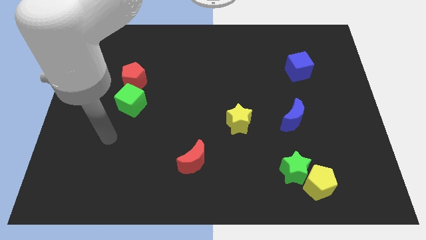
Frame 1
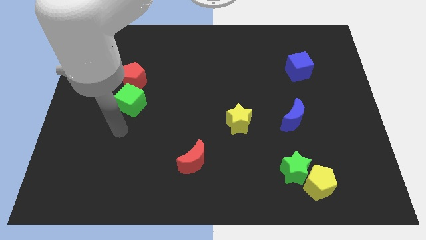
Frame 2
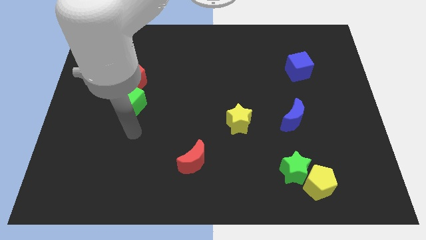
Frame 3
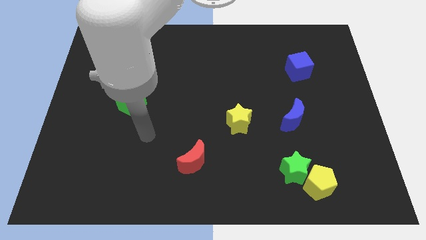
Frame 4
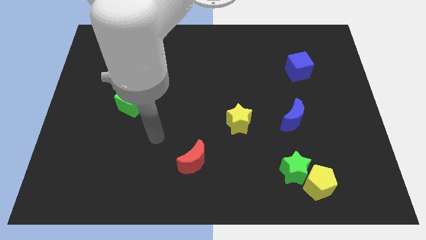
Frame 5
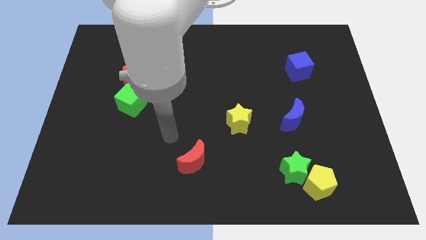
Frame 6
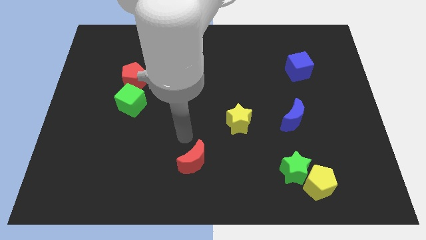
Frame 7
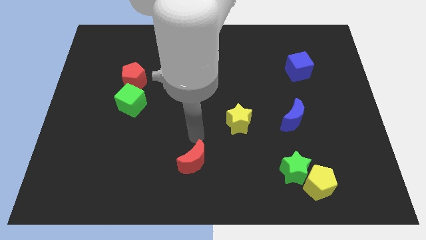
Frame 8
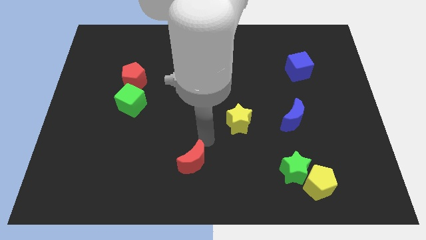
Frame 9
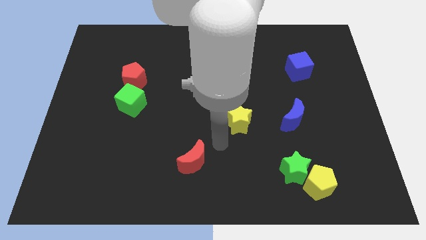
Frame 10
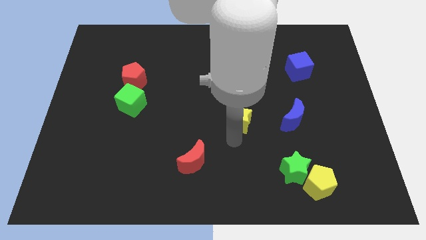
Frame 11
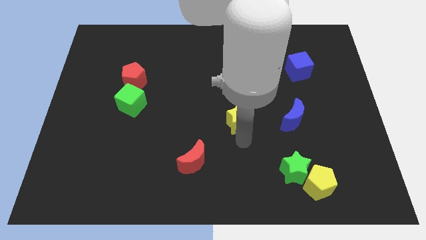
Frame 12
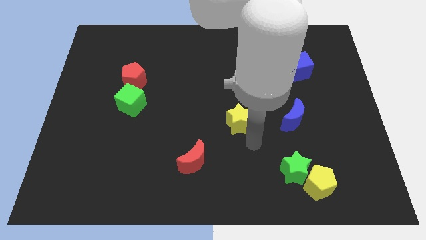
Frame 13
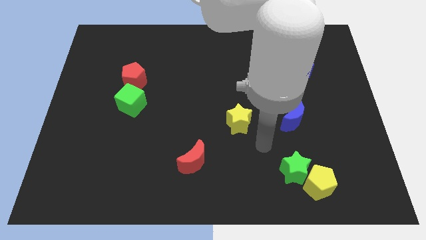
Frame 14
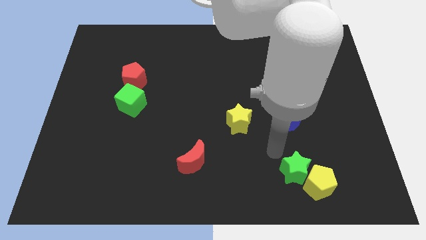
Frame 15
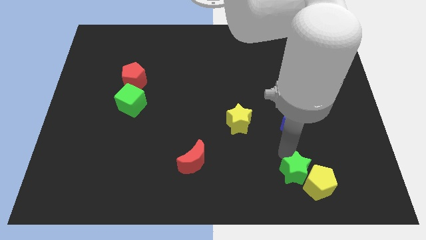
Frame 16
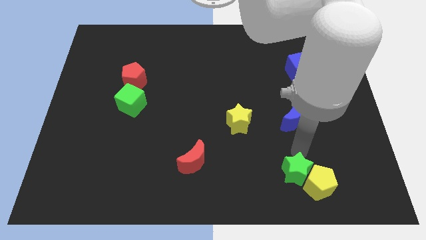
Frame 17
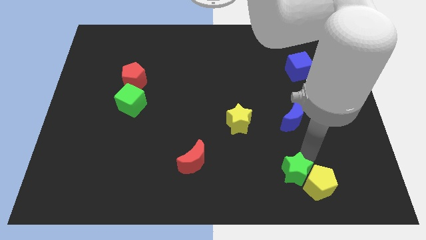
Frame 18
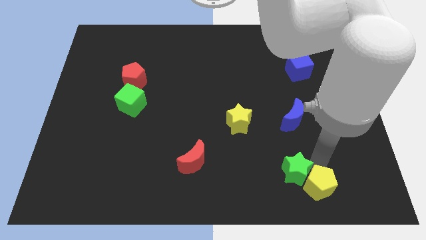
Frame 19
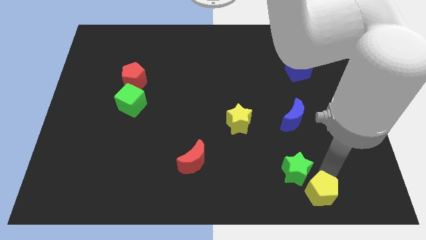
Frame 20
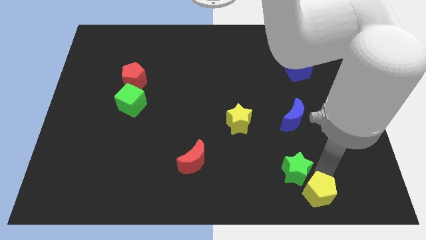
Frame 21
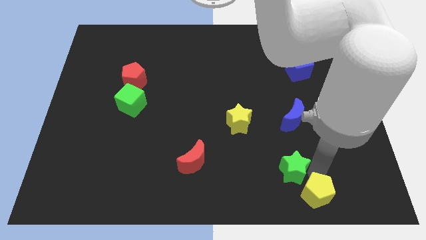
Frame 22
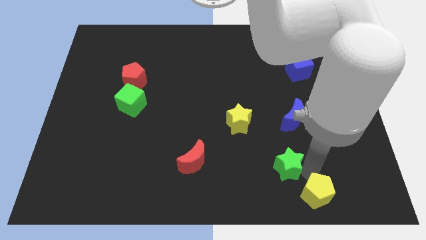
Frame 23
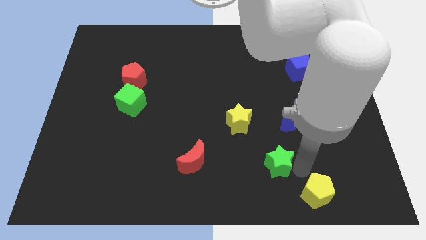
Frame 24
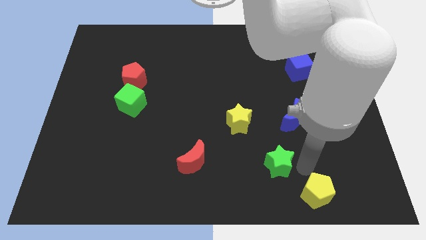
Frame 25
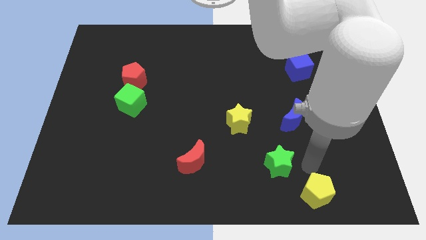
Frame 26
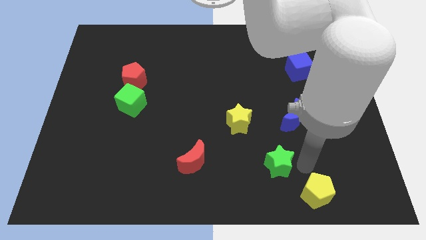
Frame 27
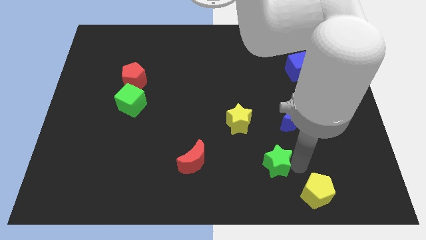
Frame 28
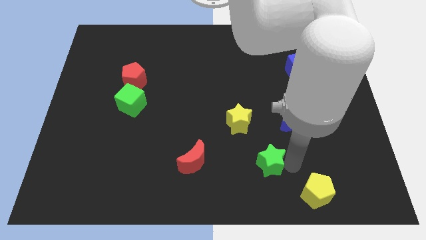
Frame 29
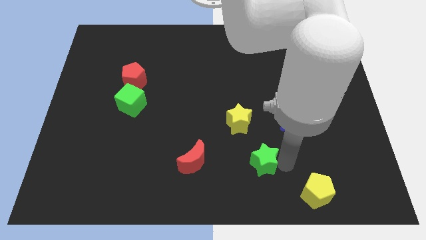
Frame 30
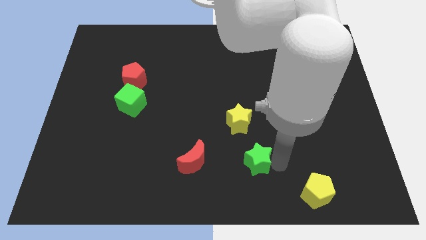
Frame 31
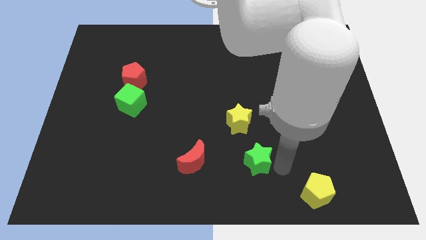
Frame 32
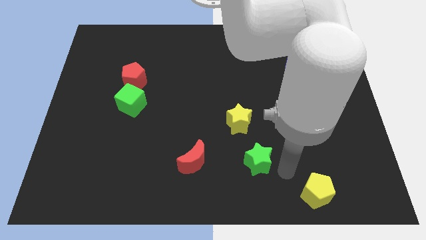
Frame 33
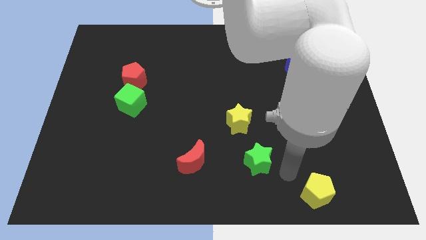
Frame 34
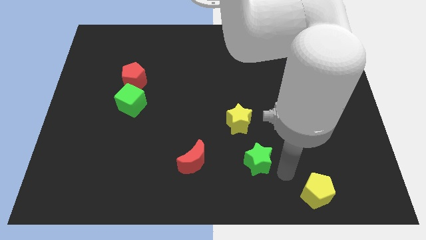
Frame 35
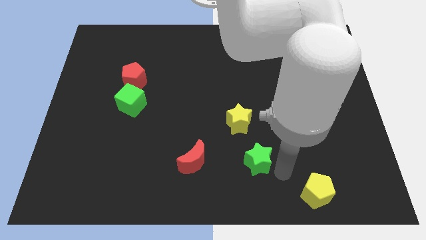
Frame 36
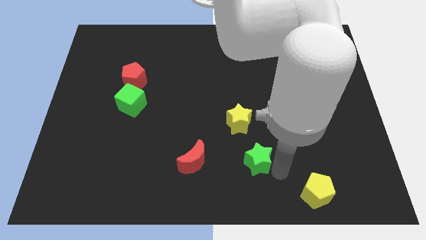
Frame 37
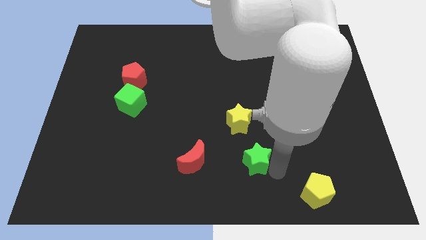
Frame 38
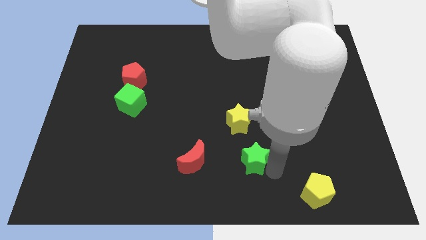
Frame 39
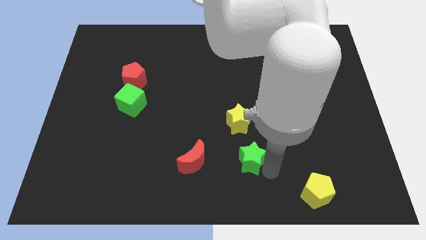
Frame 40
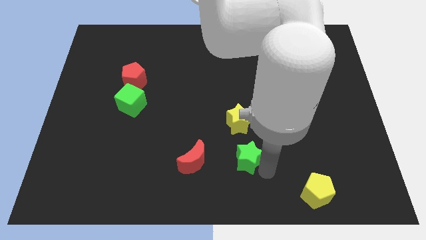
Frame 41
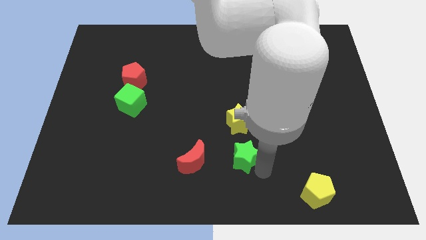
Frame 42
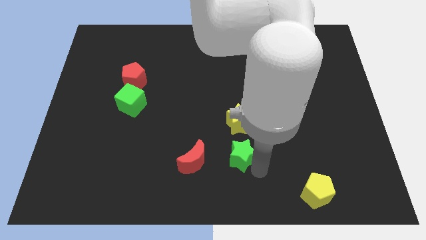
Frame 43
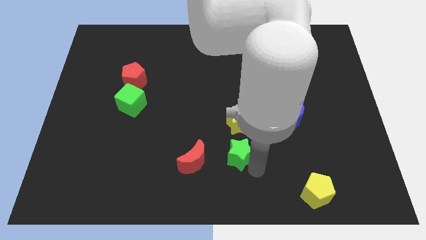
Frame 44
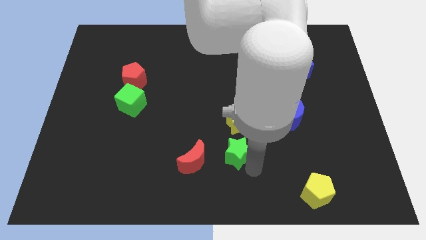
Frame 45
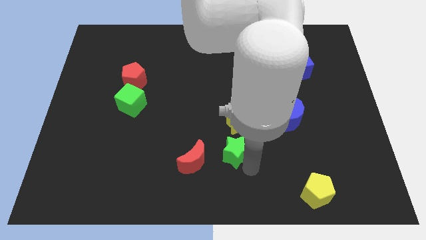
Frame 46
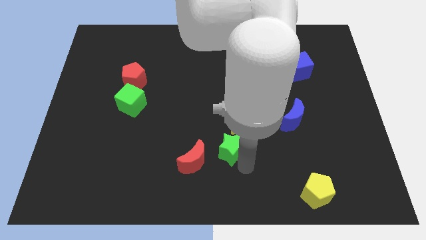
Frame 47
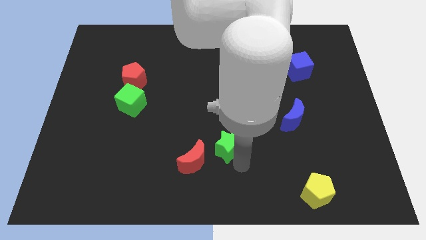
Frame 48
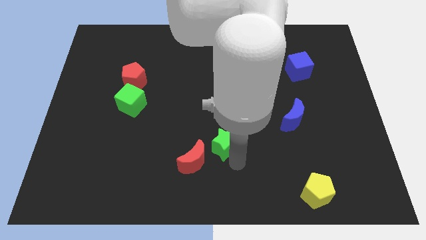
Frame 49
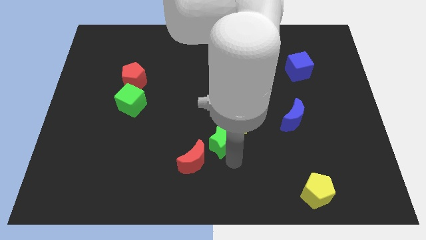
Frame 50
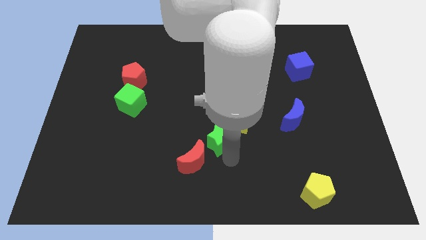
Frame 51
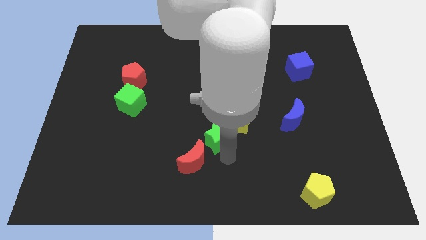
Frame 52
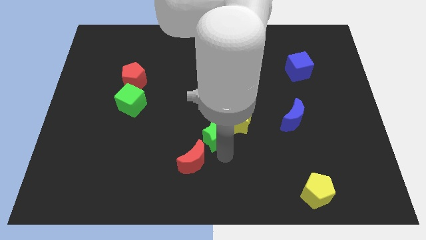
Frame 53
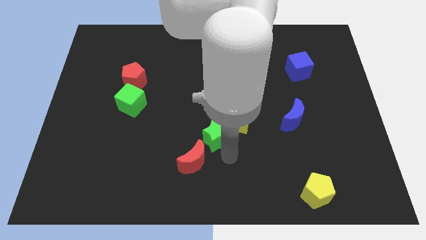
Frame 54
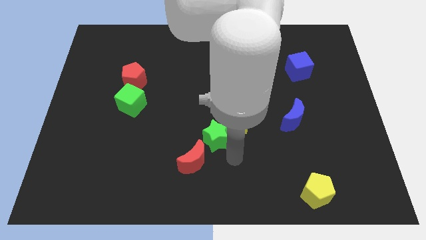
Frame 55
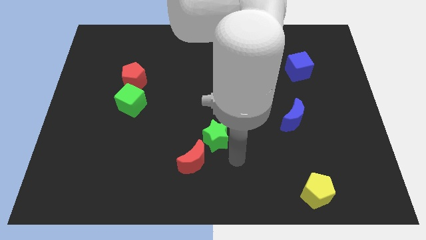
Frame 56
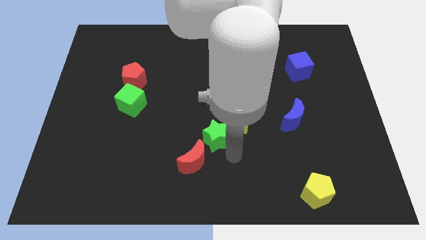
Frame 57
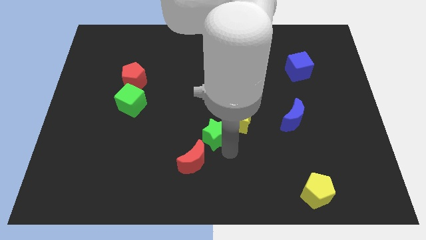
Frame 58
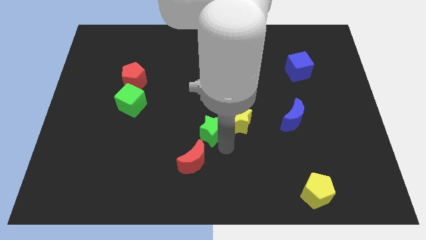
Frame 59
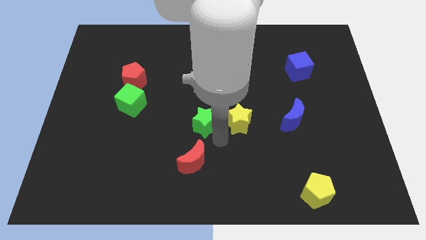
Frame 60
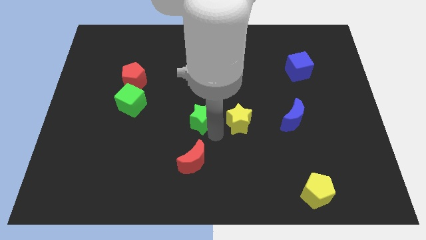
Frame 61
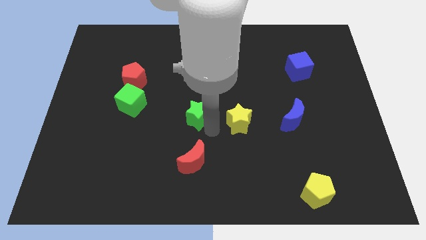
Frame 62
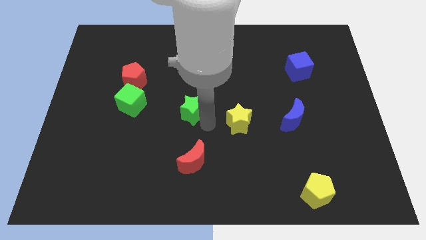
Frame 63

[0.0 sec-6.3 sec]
move the green star to the right side of the green cube

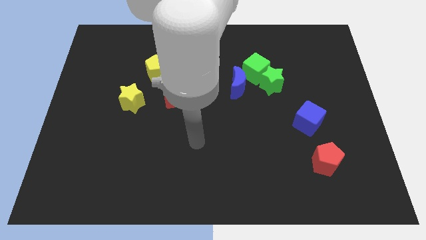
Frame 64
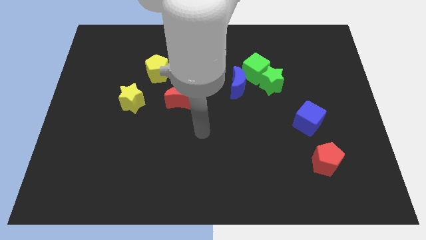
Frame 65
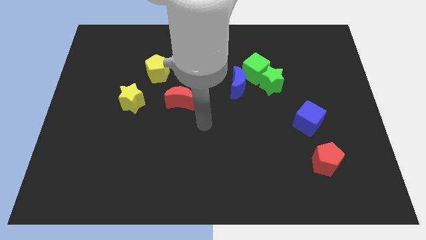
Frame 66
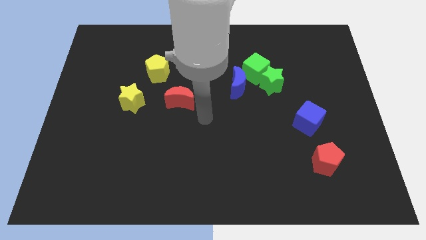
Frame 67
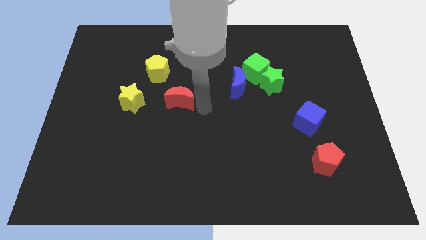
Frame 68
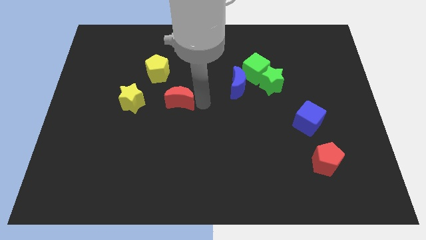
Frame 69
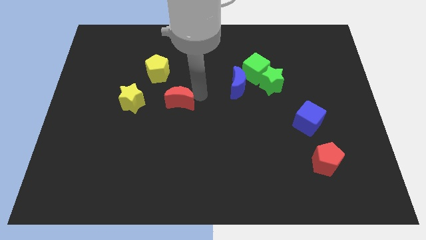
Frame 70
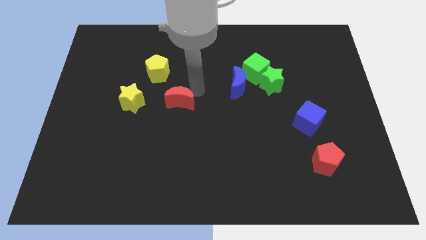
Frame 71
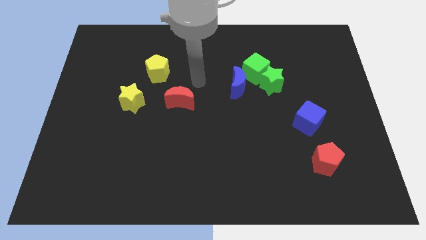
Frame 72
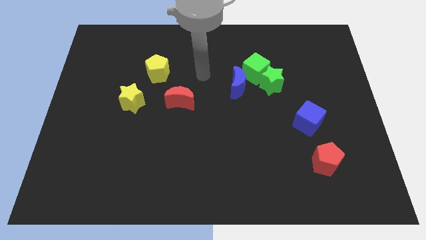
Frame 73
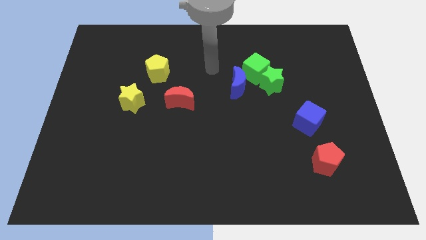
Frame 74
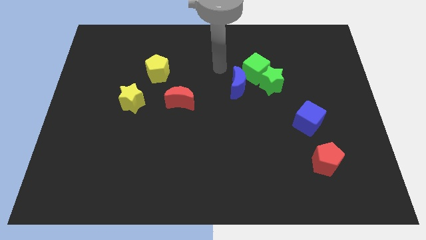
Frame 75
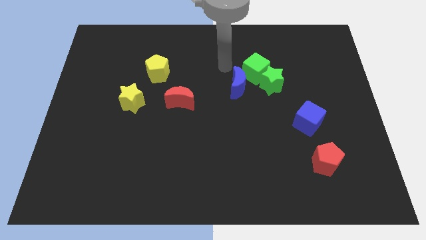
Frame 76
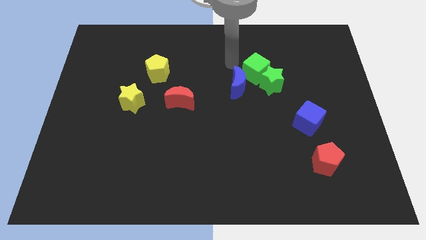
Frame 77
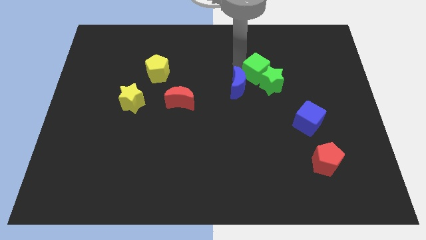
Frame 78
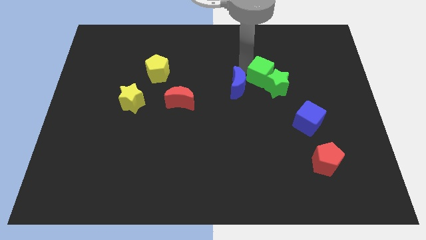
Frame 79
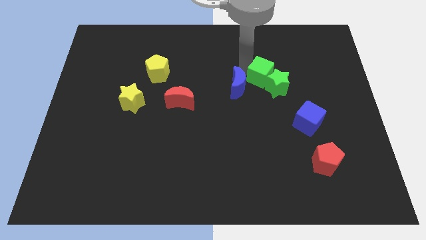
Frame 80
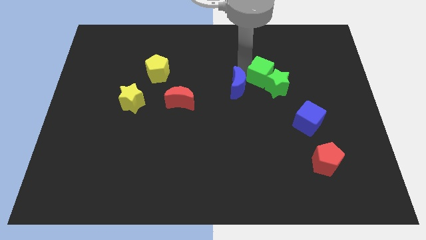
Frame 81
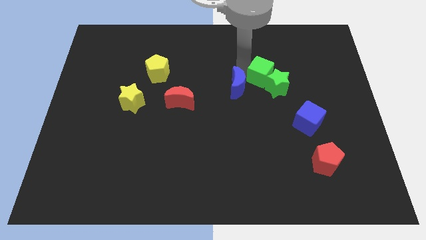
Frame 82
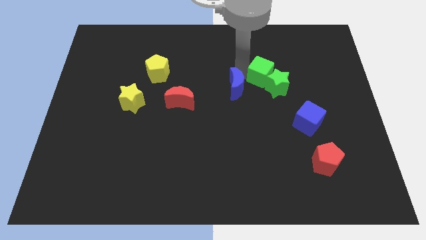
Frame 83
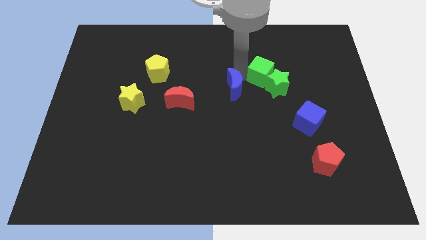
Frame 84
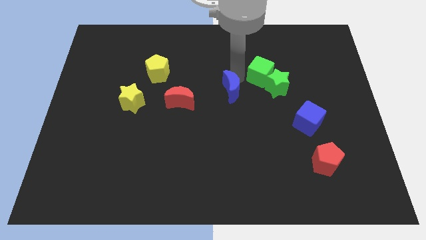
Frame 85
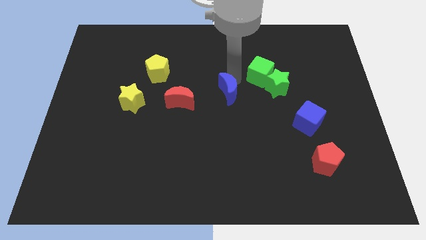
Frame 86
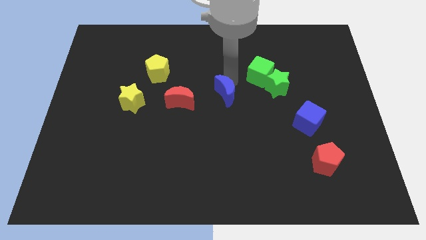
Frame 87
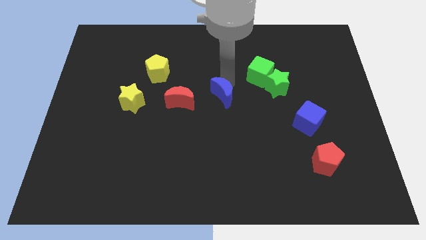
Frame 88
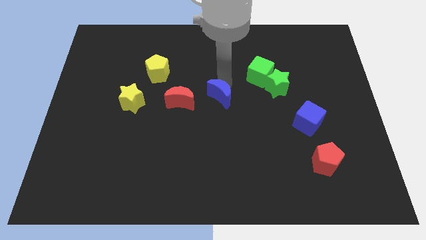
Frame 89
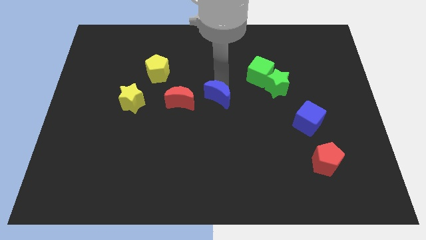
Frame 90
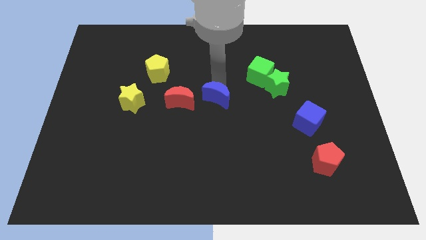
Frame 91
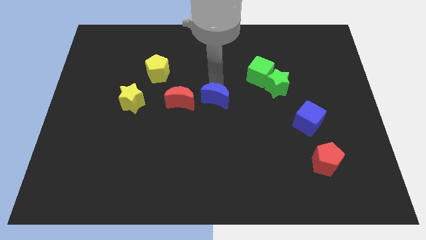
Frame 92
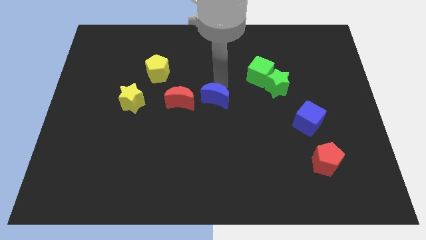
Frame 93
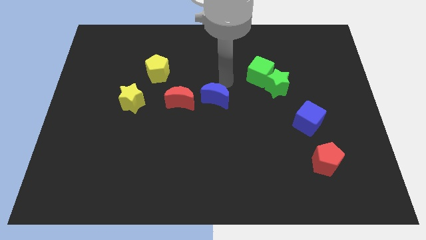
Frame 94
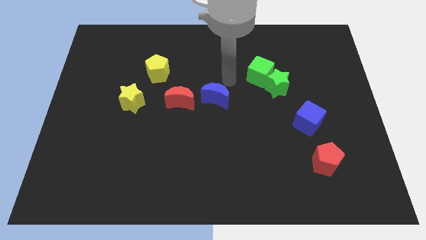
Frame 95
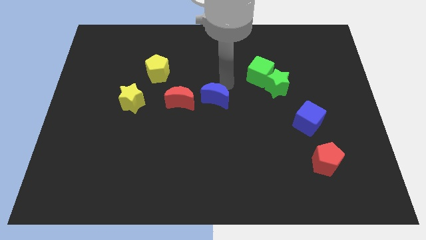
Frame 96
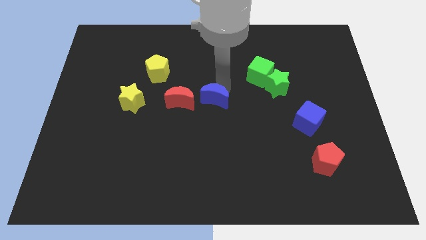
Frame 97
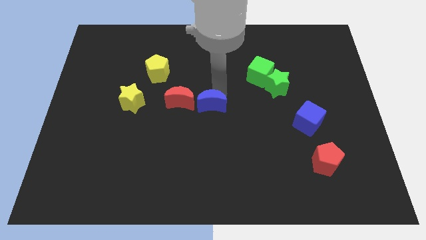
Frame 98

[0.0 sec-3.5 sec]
move the blue moon to the bottom right side of the red moon
